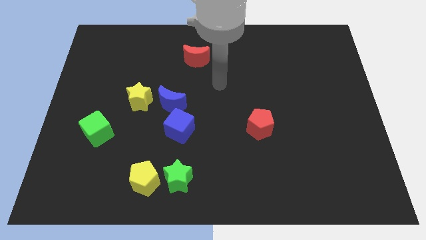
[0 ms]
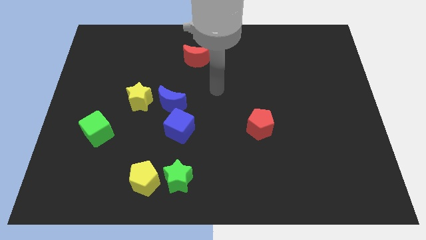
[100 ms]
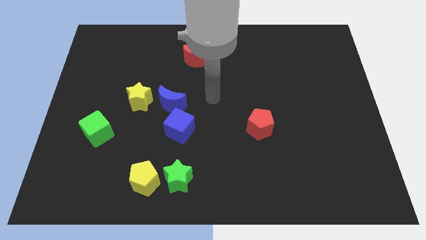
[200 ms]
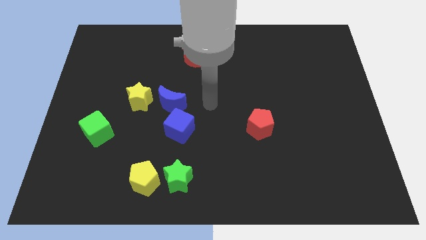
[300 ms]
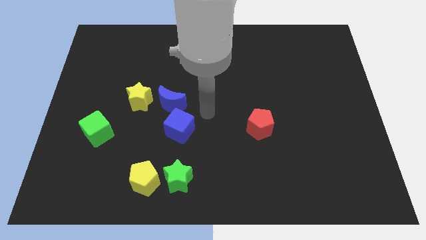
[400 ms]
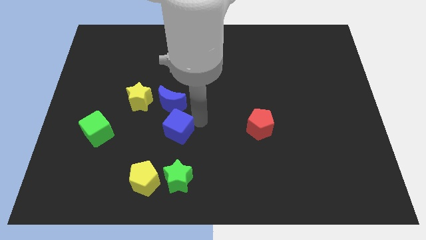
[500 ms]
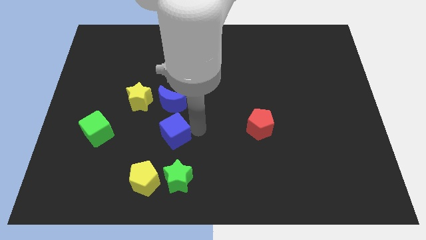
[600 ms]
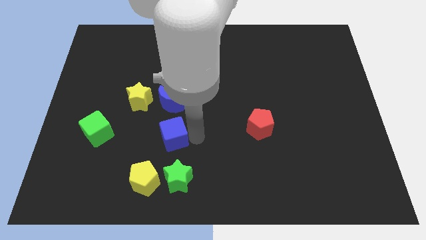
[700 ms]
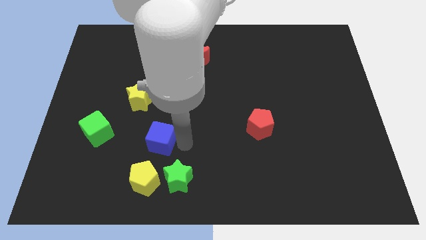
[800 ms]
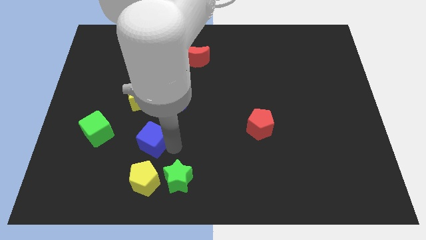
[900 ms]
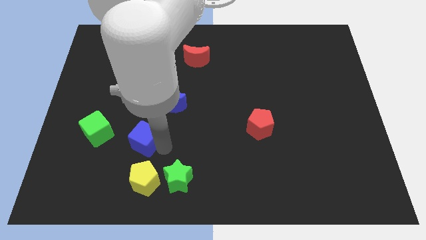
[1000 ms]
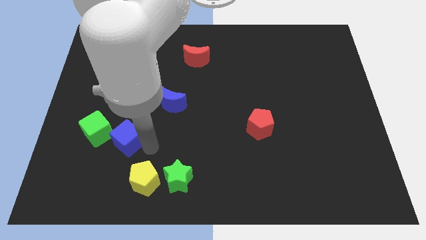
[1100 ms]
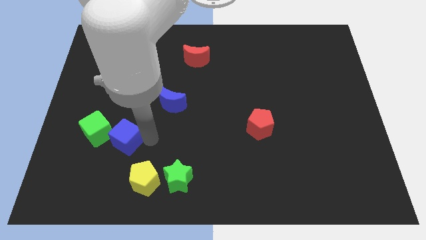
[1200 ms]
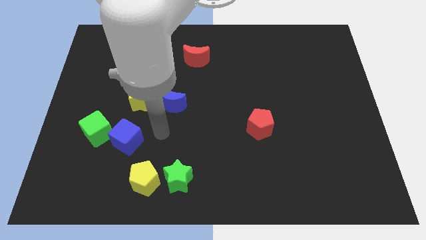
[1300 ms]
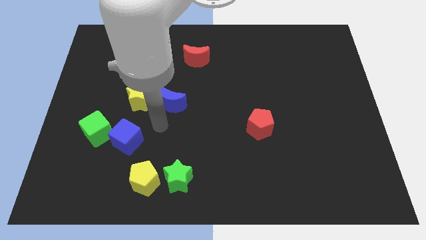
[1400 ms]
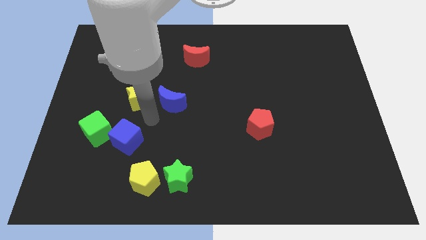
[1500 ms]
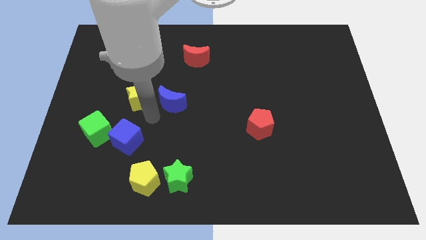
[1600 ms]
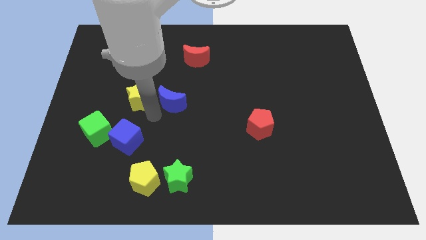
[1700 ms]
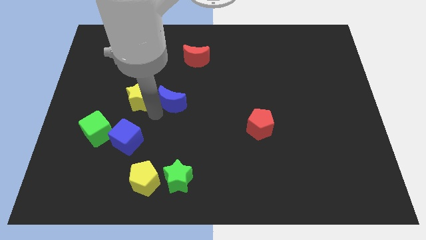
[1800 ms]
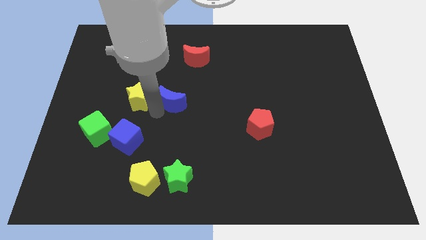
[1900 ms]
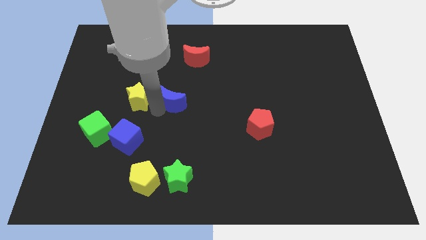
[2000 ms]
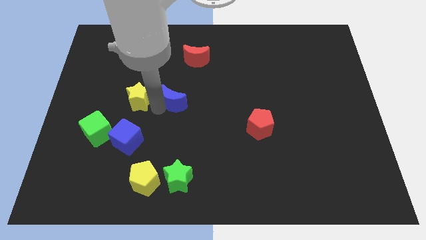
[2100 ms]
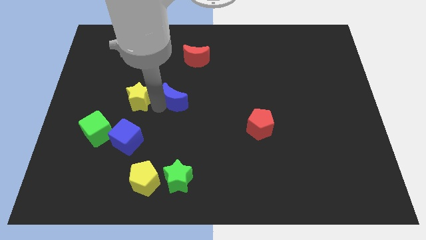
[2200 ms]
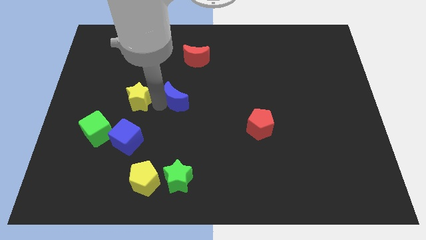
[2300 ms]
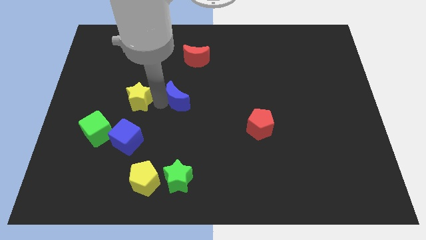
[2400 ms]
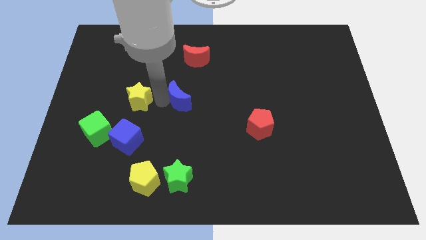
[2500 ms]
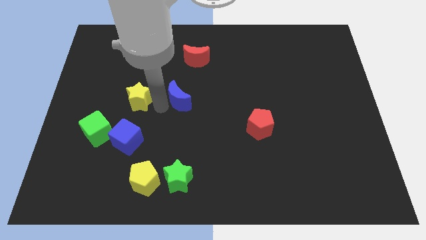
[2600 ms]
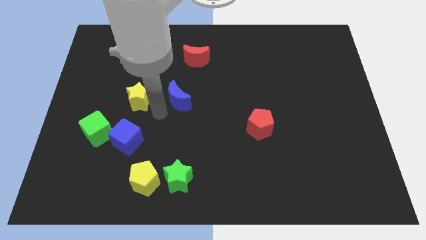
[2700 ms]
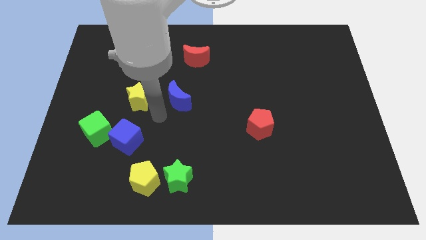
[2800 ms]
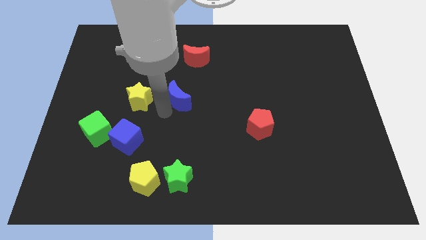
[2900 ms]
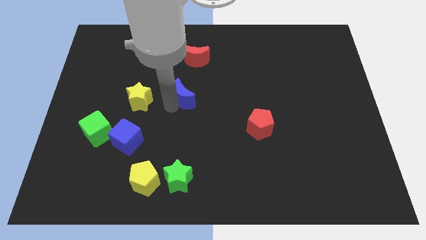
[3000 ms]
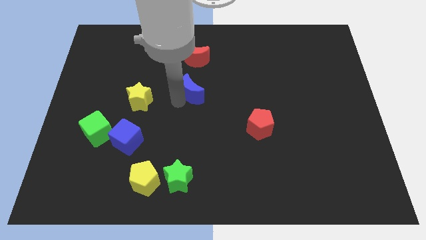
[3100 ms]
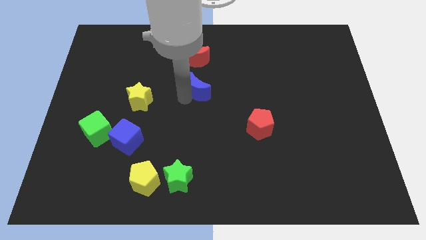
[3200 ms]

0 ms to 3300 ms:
push the blue moon diagonally up and to the right a little

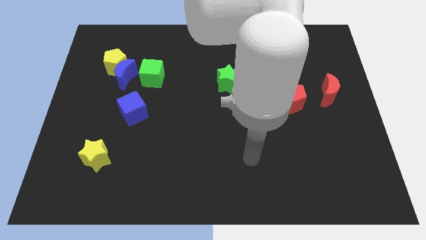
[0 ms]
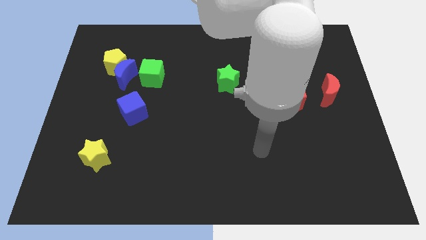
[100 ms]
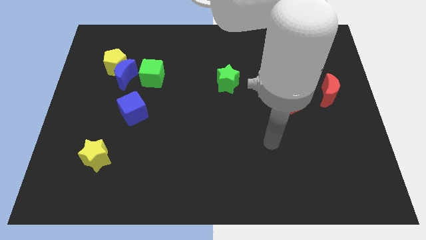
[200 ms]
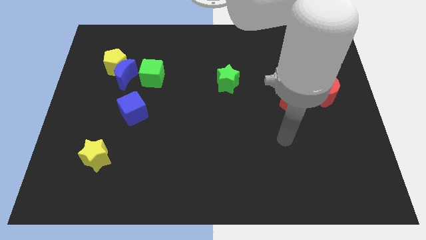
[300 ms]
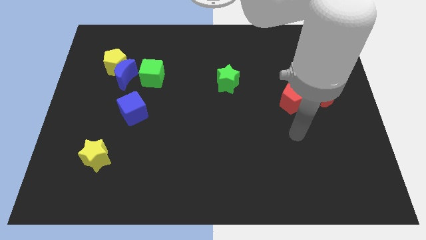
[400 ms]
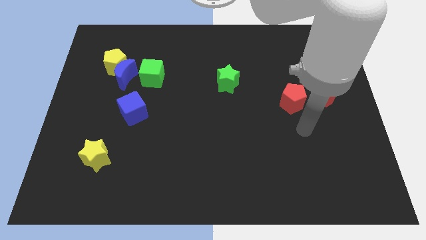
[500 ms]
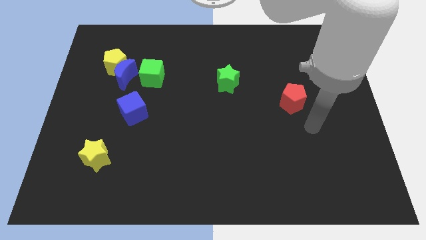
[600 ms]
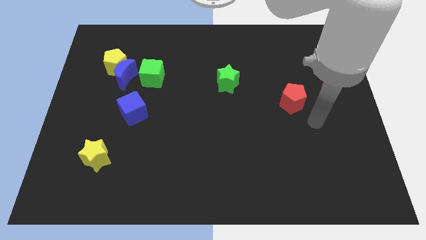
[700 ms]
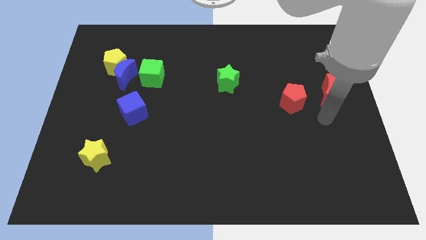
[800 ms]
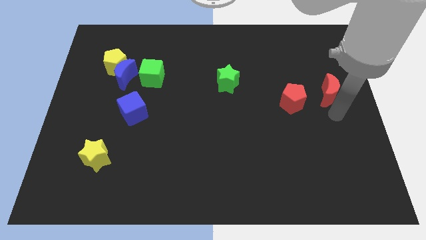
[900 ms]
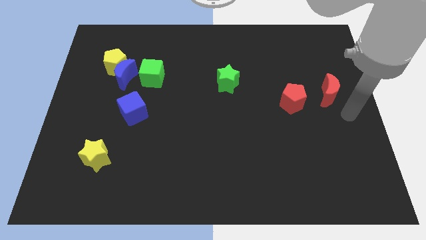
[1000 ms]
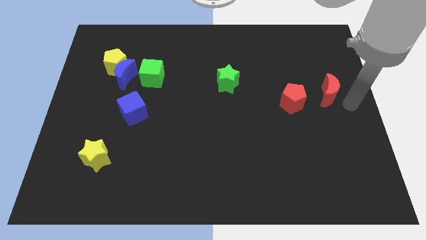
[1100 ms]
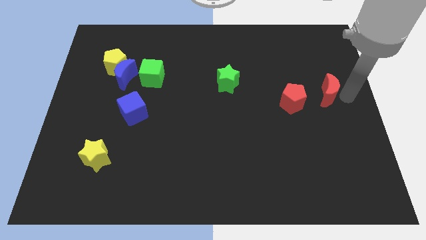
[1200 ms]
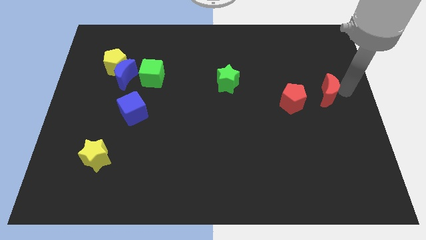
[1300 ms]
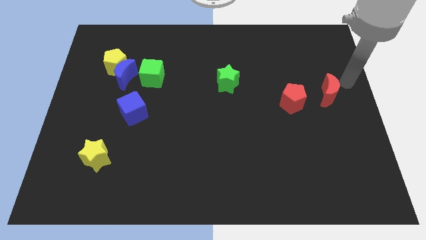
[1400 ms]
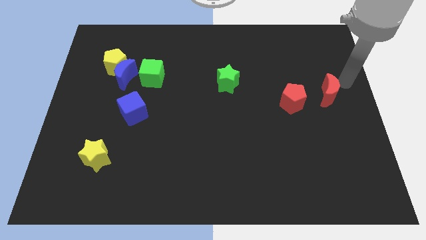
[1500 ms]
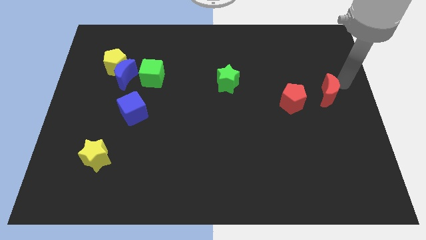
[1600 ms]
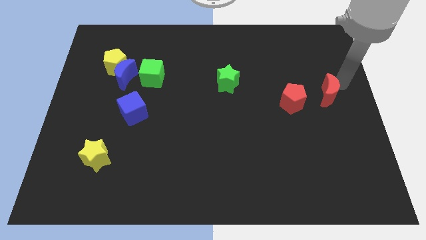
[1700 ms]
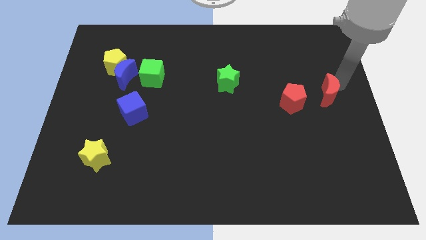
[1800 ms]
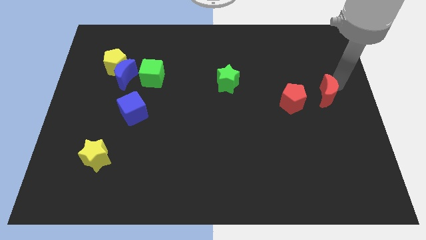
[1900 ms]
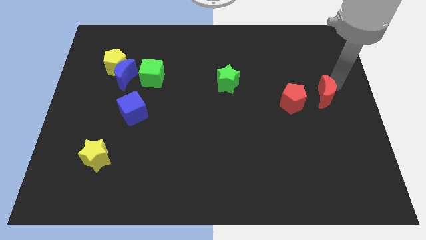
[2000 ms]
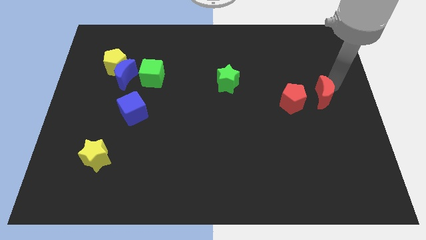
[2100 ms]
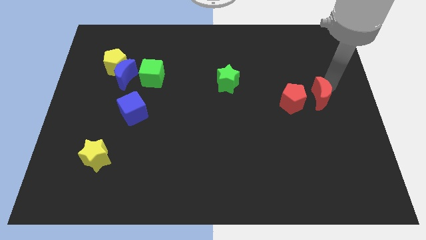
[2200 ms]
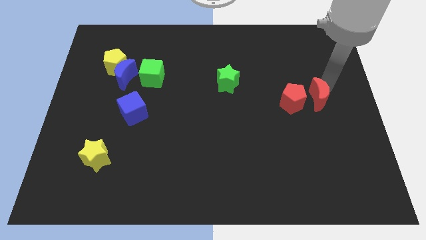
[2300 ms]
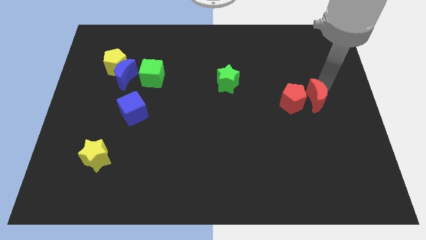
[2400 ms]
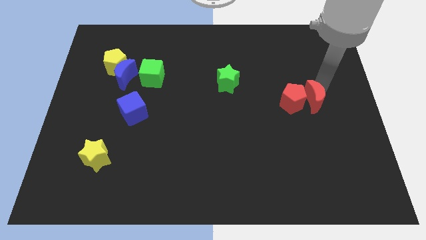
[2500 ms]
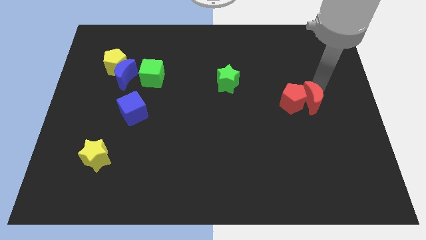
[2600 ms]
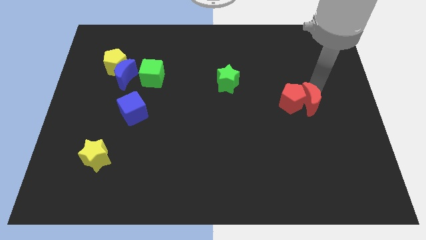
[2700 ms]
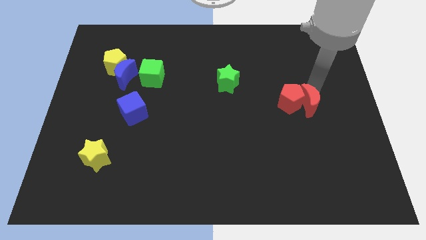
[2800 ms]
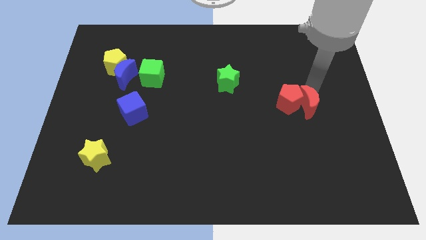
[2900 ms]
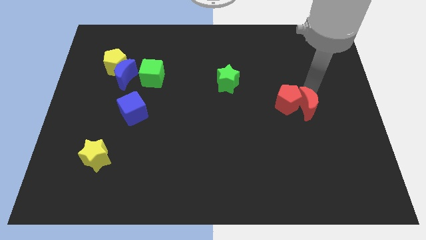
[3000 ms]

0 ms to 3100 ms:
move the red moon downwards and left a little bit

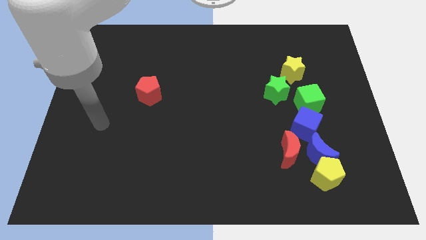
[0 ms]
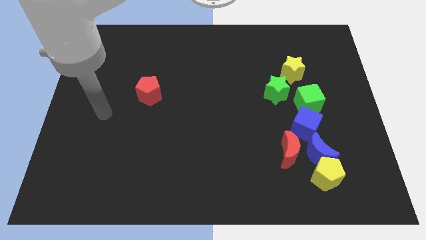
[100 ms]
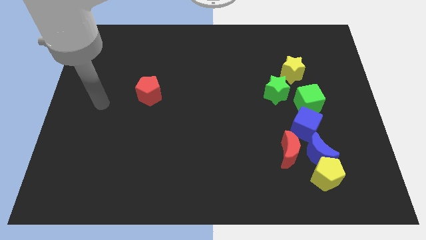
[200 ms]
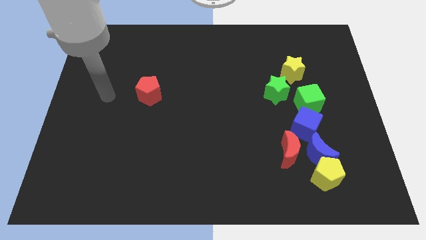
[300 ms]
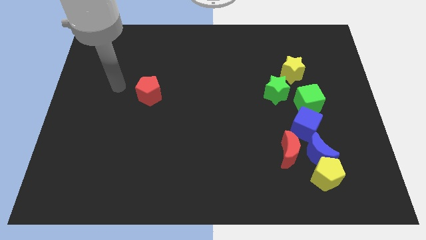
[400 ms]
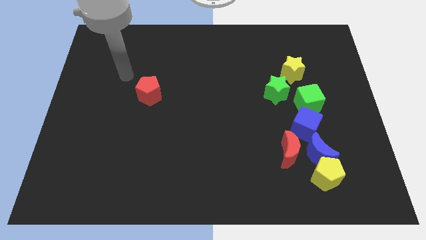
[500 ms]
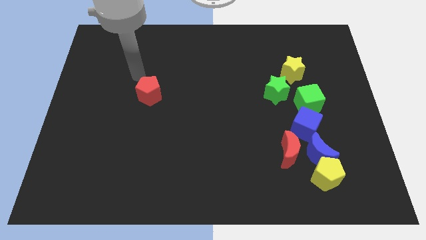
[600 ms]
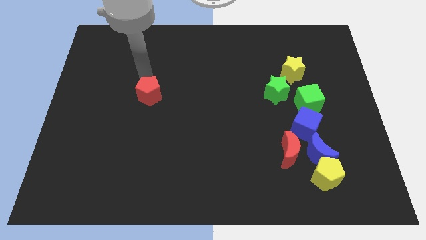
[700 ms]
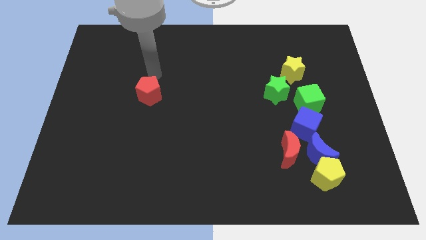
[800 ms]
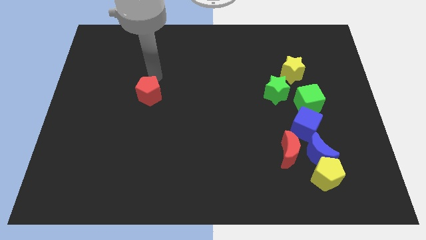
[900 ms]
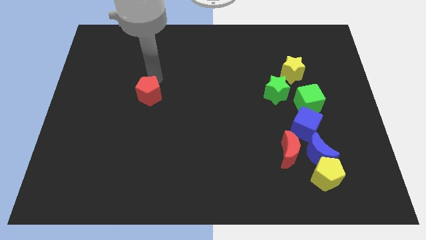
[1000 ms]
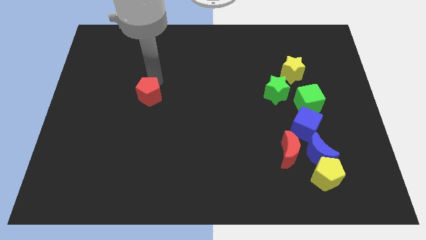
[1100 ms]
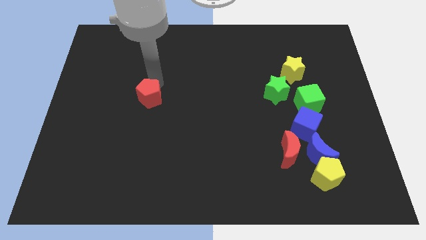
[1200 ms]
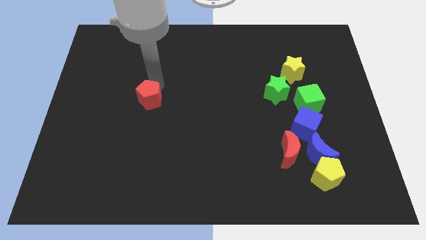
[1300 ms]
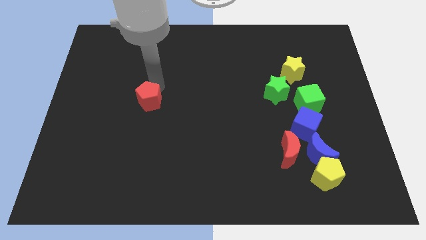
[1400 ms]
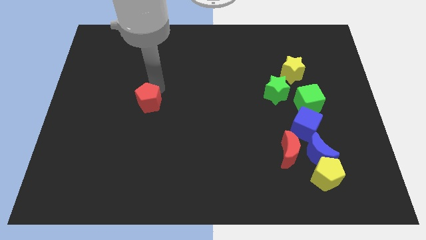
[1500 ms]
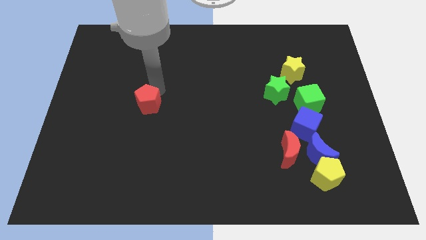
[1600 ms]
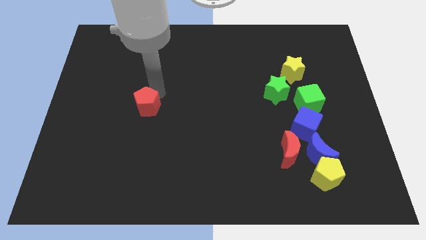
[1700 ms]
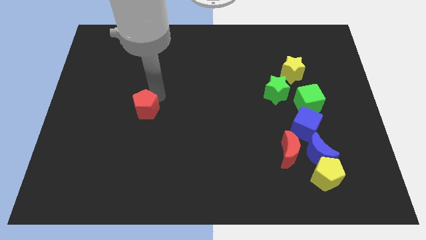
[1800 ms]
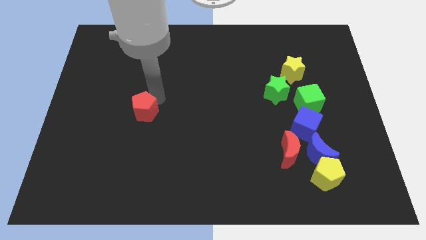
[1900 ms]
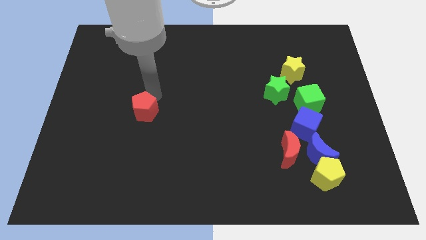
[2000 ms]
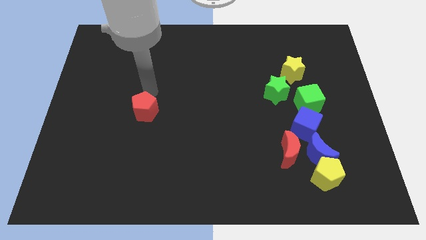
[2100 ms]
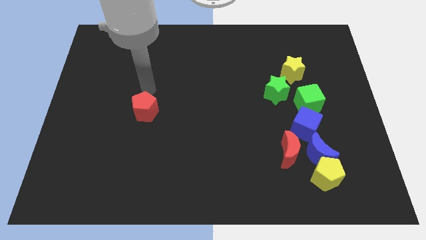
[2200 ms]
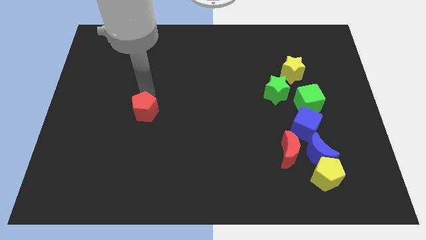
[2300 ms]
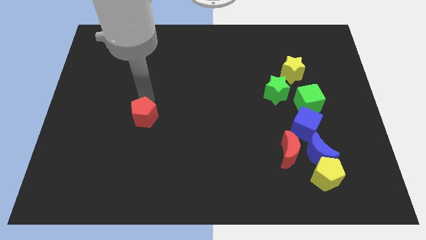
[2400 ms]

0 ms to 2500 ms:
move the red pentagon downwards a little
